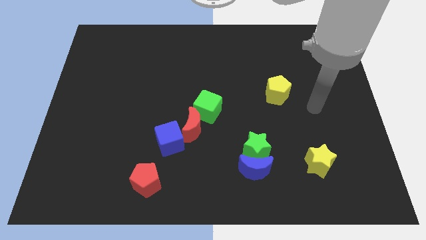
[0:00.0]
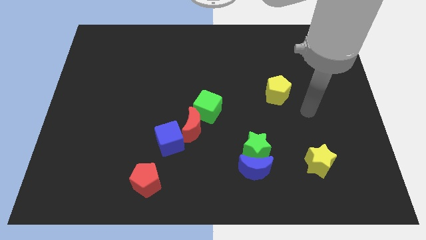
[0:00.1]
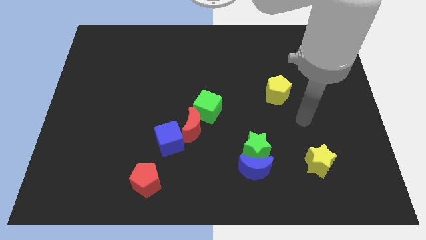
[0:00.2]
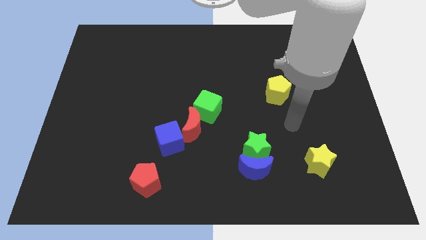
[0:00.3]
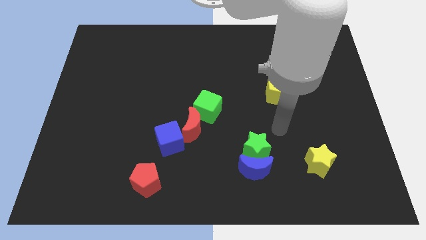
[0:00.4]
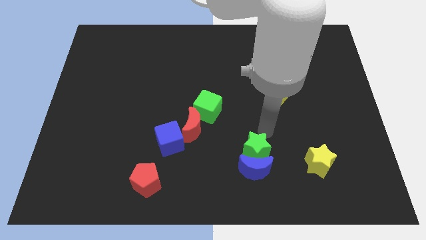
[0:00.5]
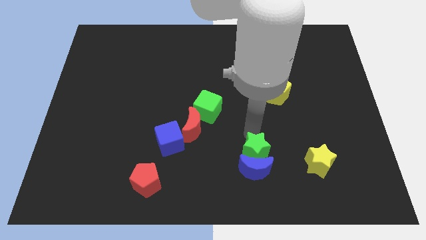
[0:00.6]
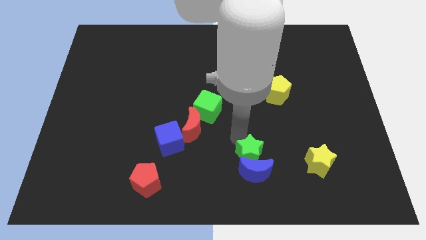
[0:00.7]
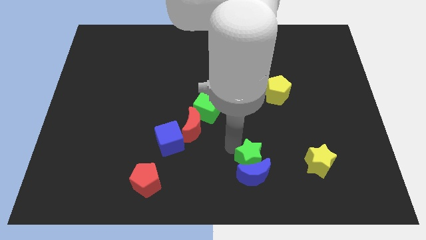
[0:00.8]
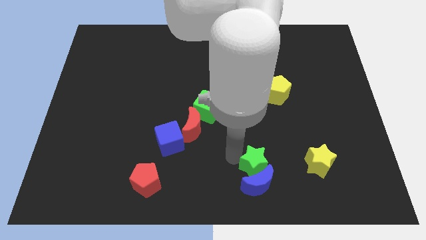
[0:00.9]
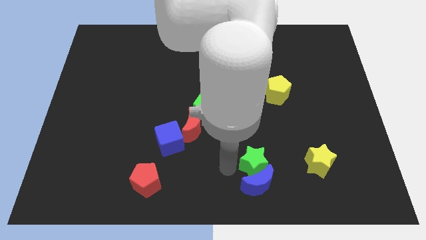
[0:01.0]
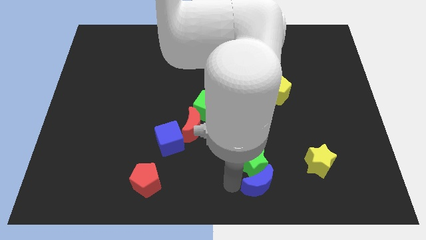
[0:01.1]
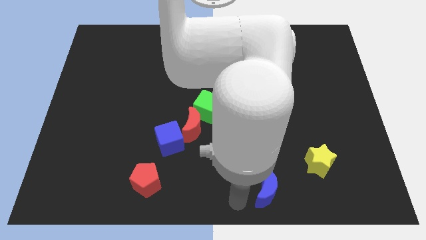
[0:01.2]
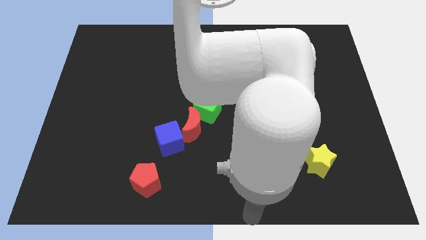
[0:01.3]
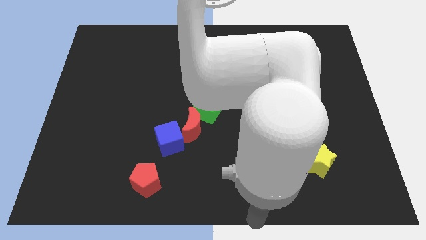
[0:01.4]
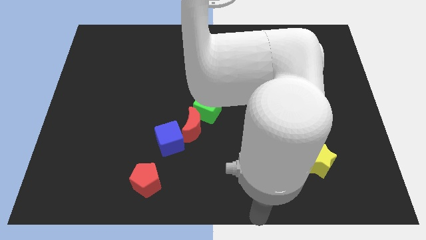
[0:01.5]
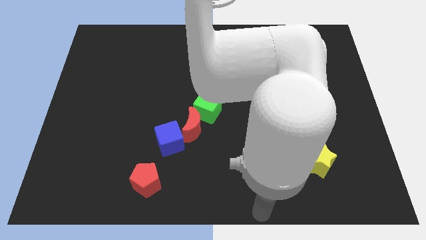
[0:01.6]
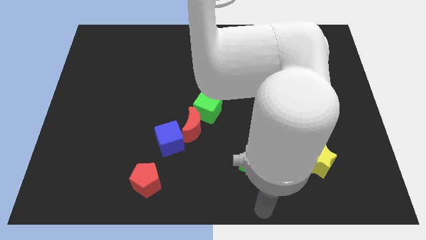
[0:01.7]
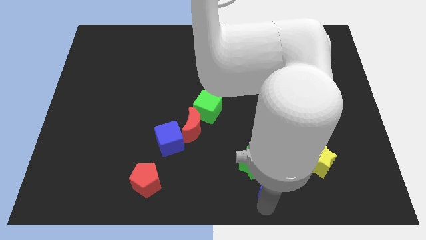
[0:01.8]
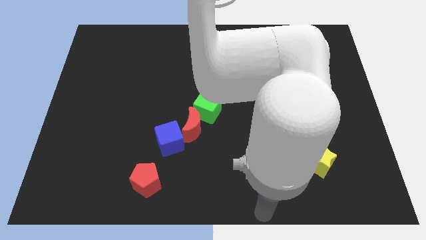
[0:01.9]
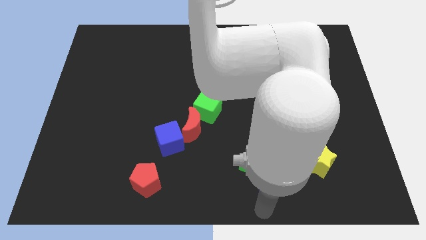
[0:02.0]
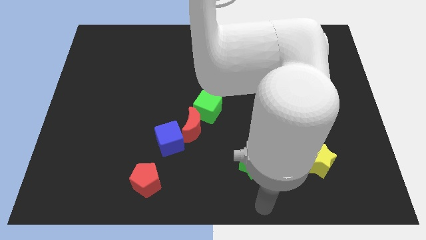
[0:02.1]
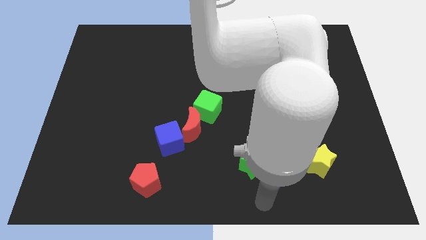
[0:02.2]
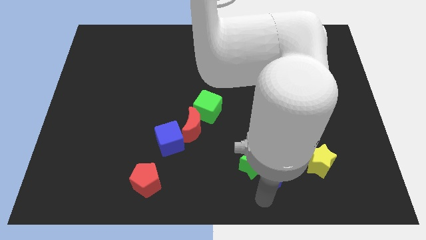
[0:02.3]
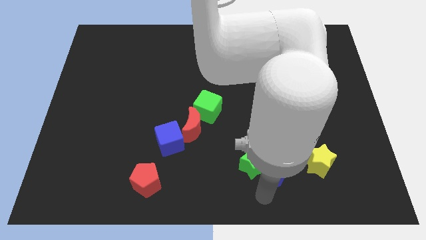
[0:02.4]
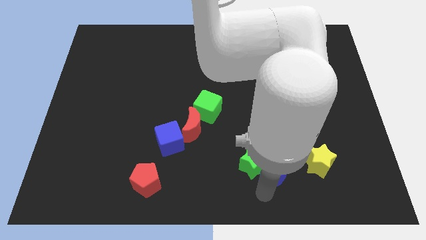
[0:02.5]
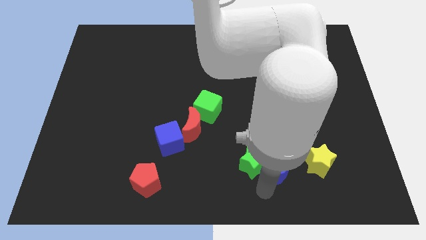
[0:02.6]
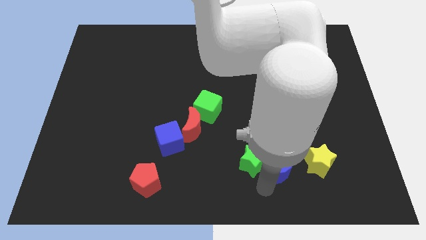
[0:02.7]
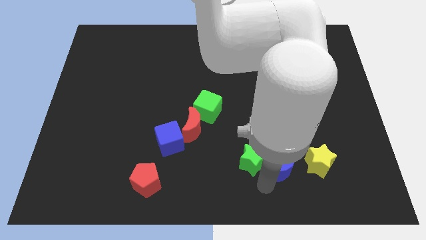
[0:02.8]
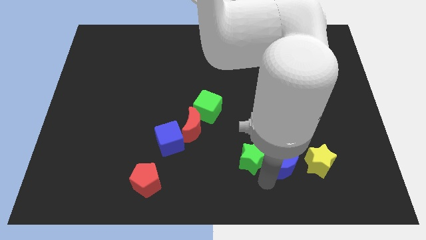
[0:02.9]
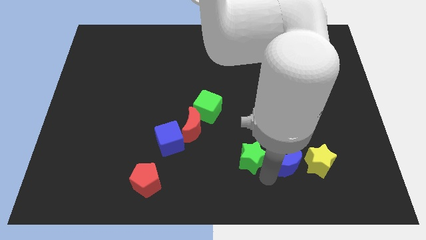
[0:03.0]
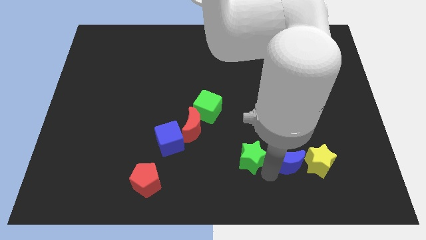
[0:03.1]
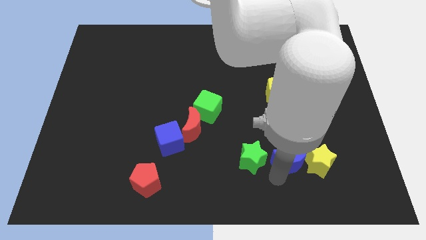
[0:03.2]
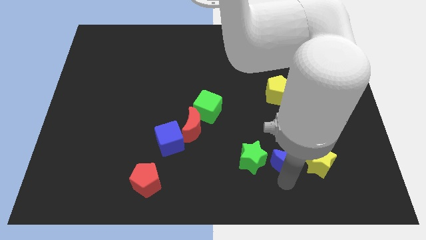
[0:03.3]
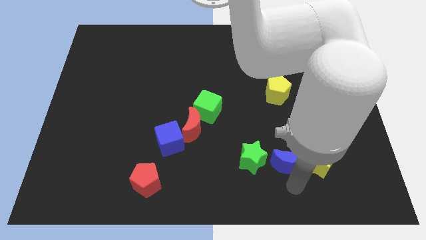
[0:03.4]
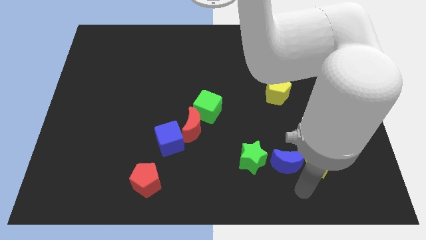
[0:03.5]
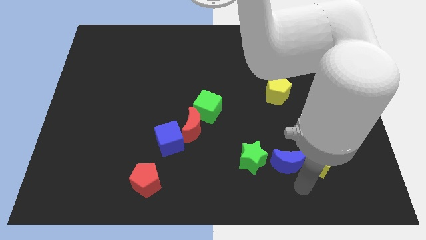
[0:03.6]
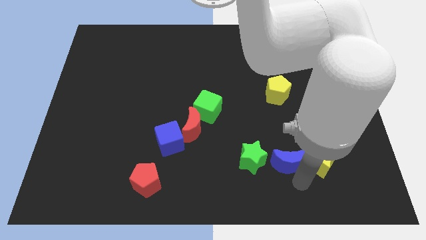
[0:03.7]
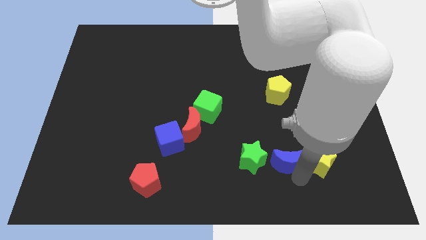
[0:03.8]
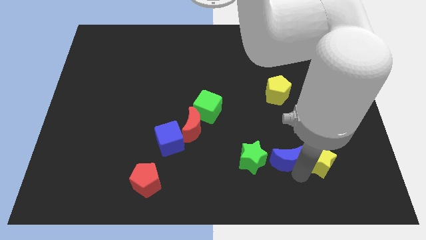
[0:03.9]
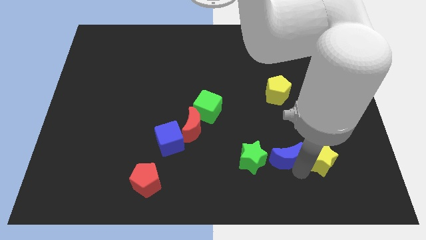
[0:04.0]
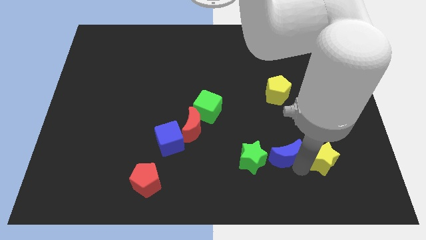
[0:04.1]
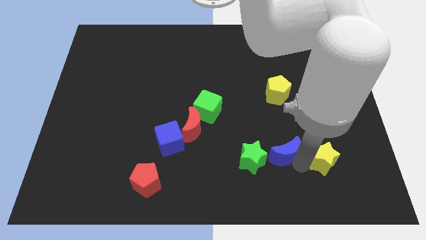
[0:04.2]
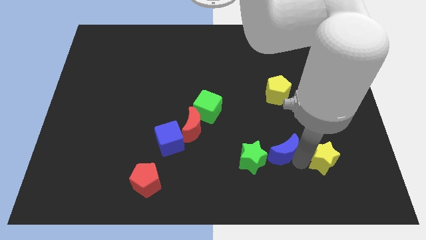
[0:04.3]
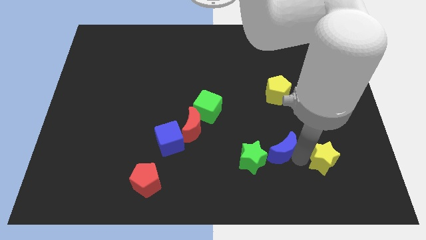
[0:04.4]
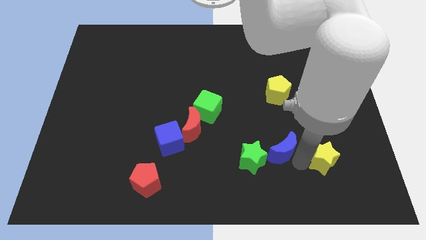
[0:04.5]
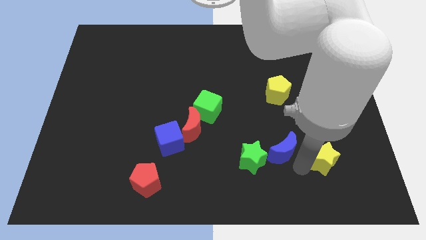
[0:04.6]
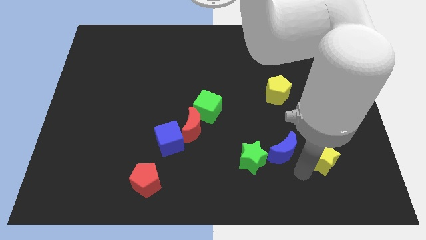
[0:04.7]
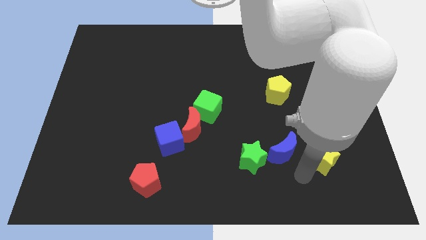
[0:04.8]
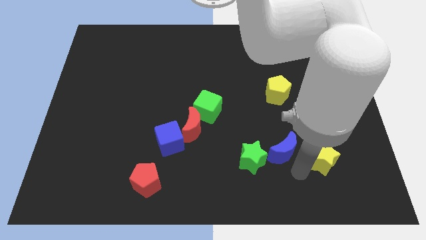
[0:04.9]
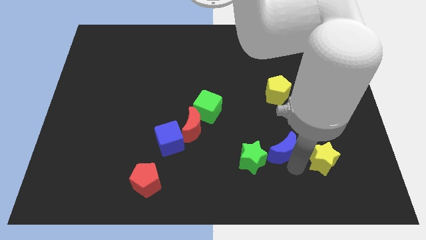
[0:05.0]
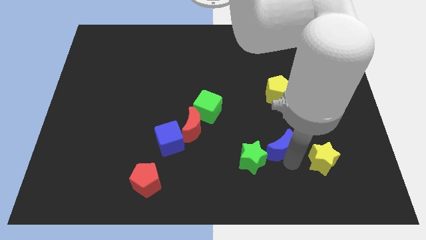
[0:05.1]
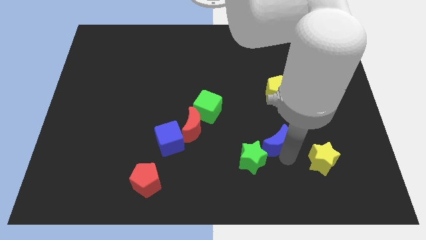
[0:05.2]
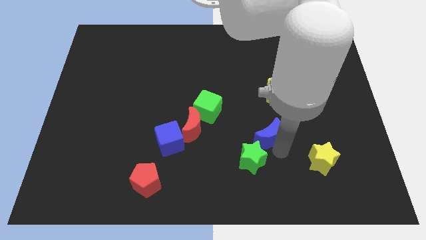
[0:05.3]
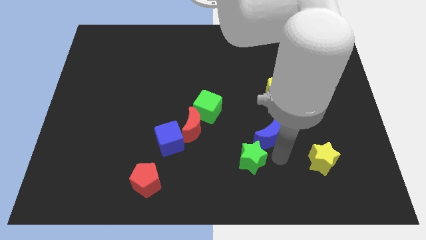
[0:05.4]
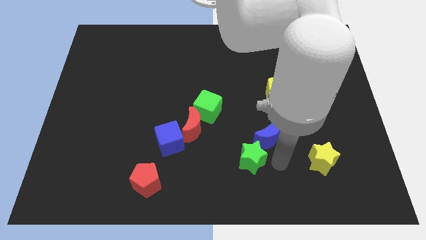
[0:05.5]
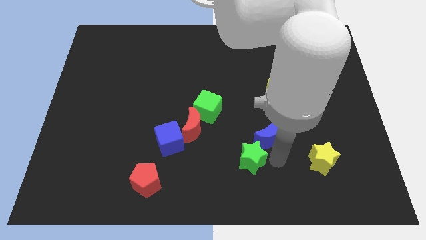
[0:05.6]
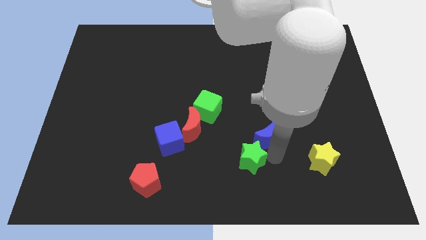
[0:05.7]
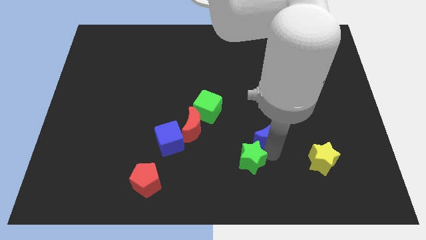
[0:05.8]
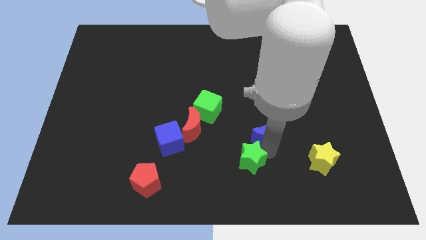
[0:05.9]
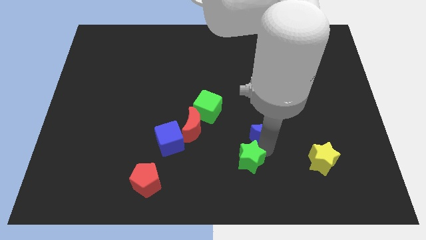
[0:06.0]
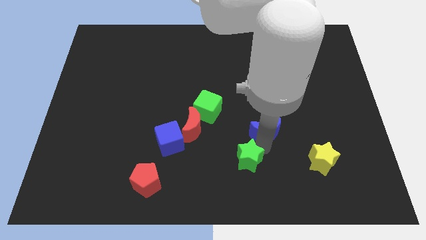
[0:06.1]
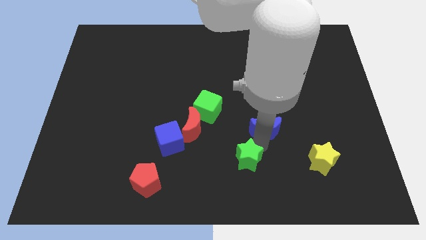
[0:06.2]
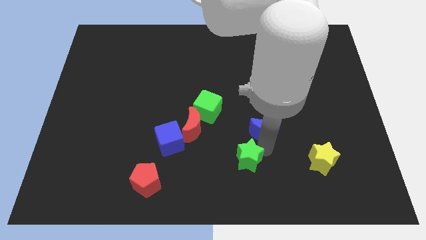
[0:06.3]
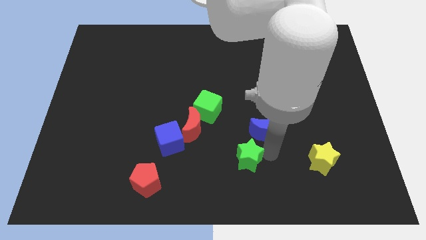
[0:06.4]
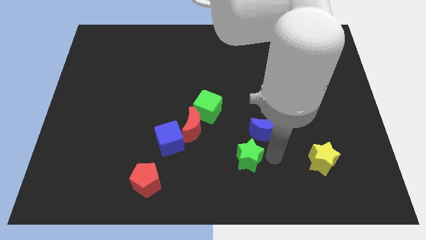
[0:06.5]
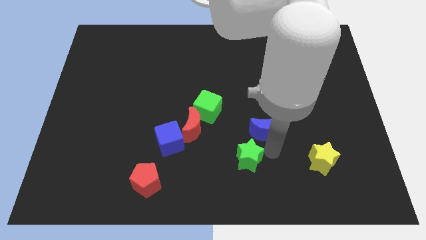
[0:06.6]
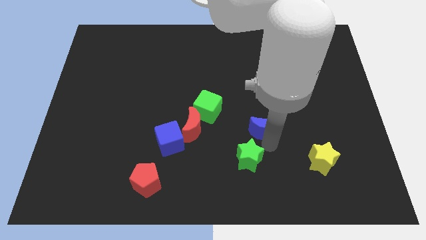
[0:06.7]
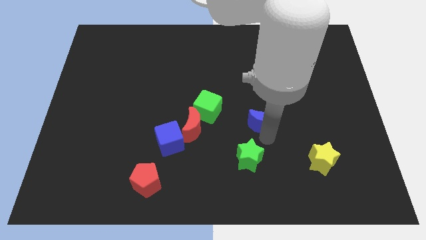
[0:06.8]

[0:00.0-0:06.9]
put the blue moon to the bottom left of the yellow pentagon
